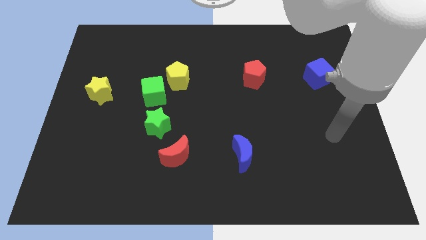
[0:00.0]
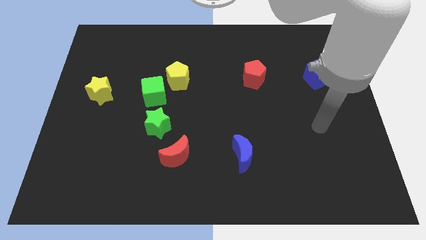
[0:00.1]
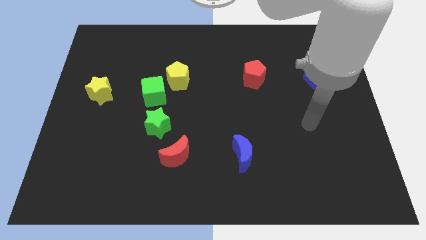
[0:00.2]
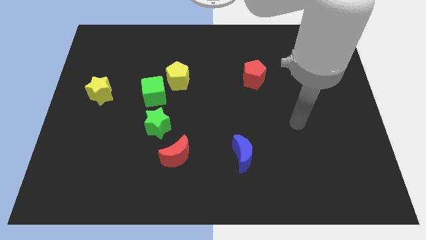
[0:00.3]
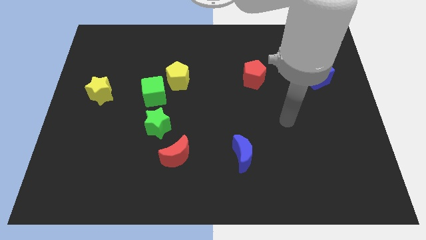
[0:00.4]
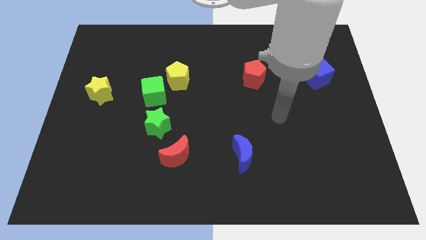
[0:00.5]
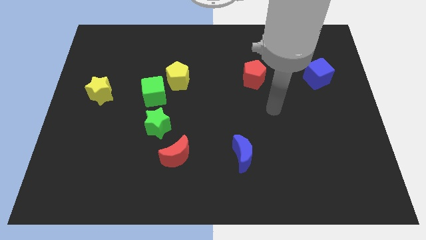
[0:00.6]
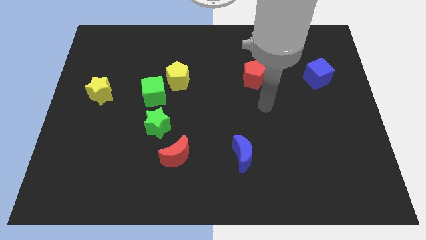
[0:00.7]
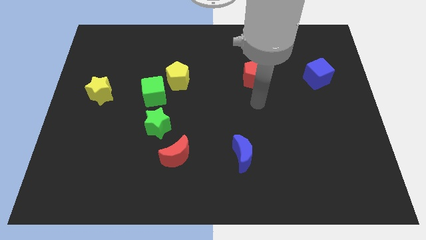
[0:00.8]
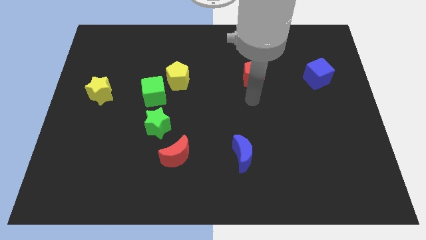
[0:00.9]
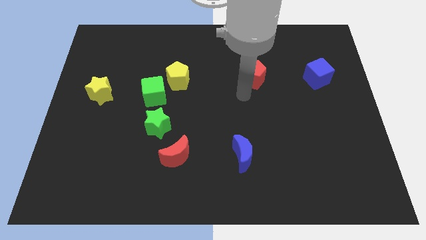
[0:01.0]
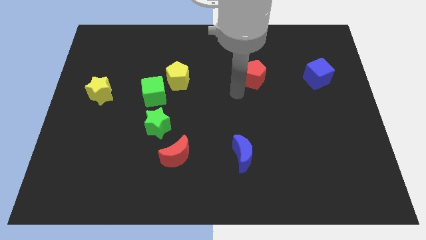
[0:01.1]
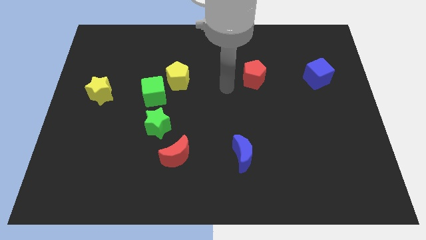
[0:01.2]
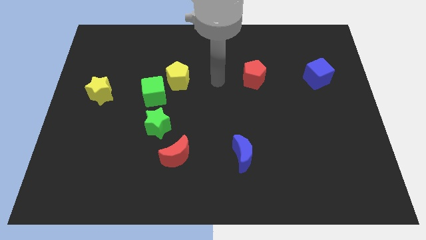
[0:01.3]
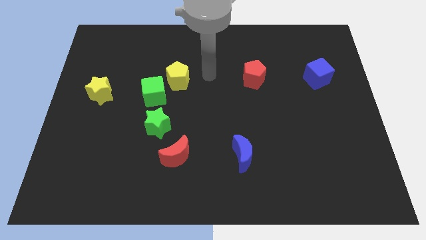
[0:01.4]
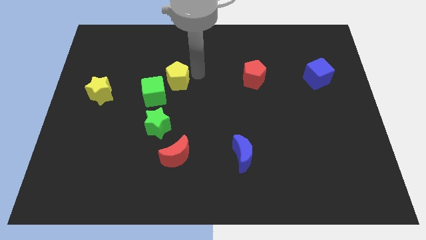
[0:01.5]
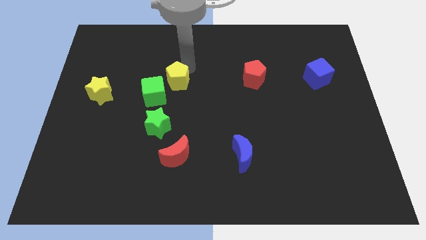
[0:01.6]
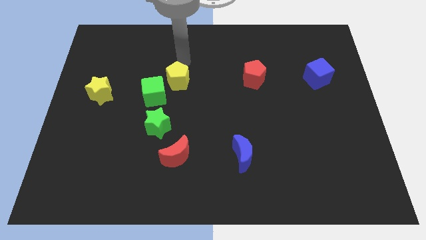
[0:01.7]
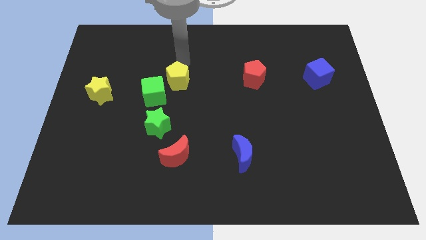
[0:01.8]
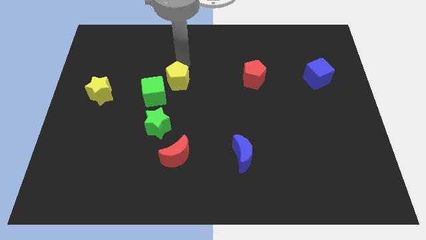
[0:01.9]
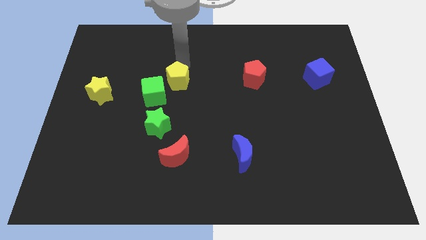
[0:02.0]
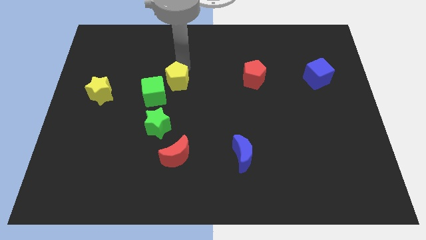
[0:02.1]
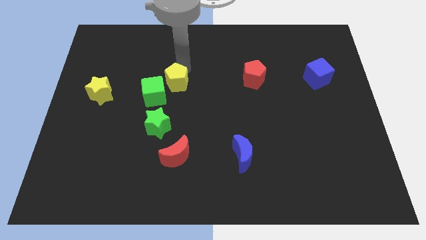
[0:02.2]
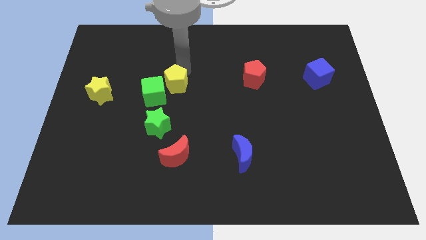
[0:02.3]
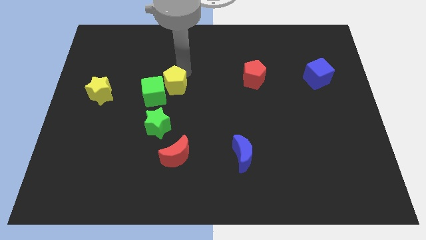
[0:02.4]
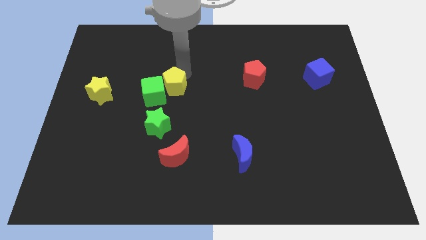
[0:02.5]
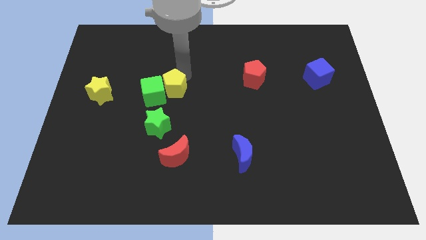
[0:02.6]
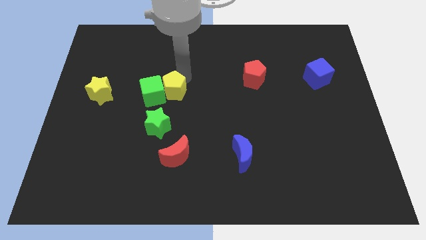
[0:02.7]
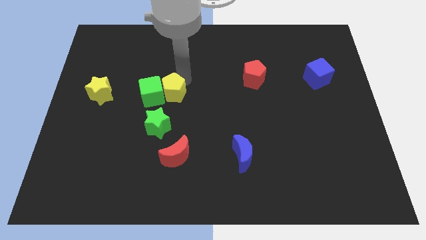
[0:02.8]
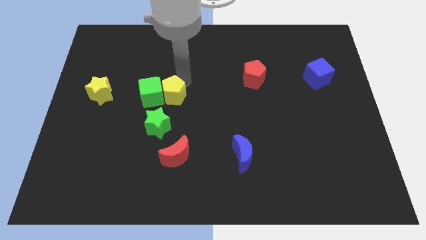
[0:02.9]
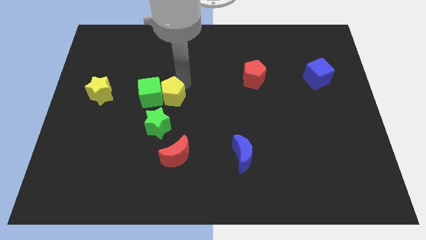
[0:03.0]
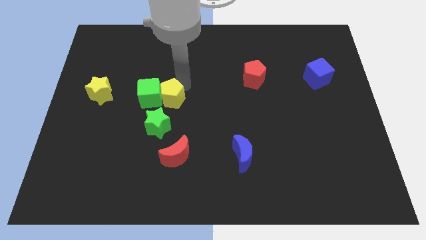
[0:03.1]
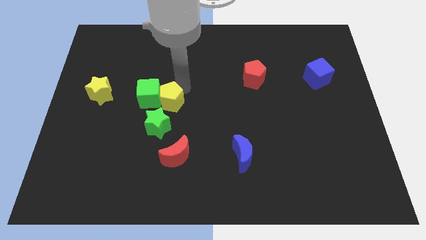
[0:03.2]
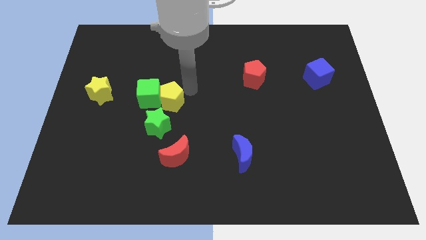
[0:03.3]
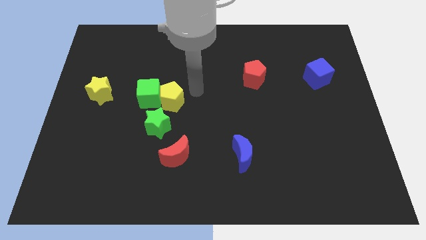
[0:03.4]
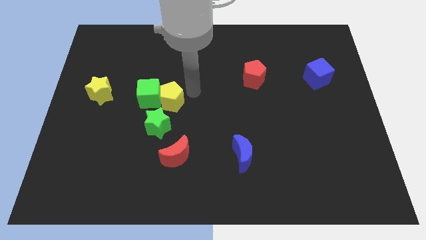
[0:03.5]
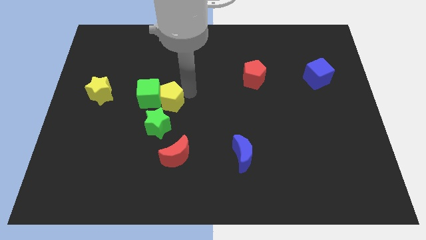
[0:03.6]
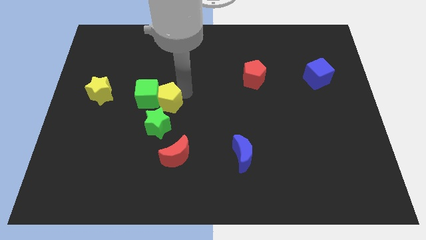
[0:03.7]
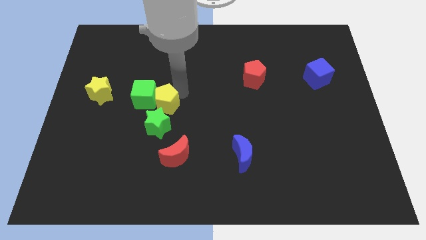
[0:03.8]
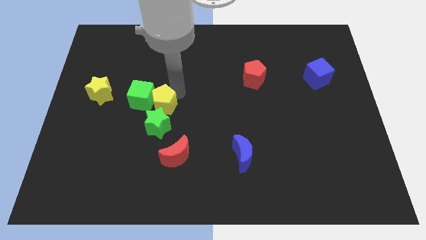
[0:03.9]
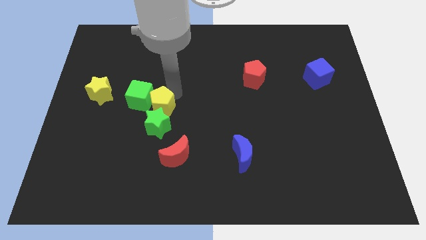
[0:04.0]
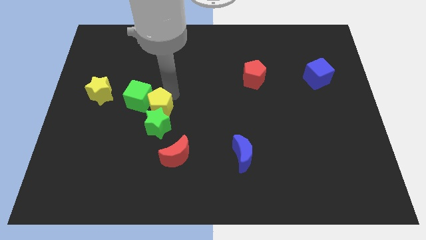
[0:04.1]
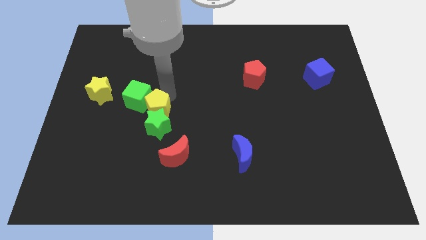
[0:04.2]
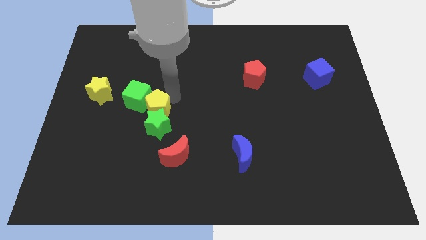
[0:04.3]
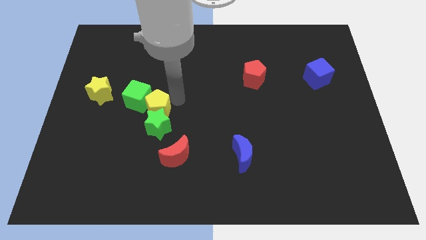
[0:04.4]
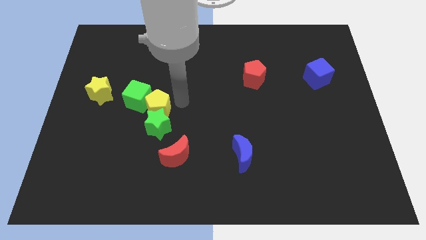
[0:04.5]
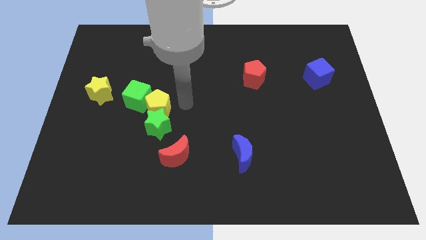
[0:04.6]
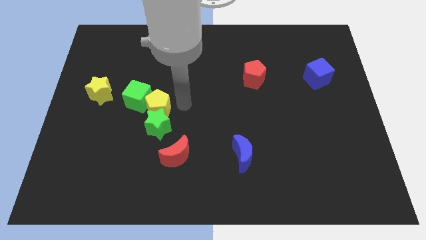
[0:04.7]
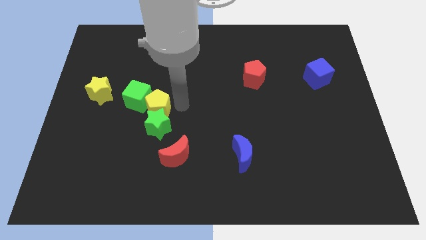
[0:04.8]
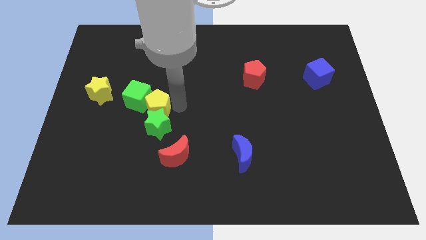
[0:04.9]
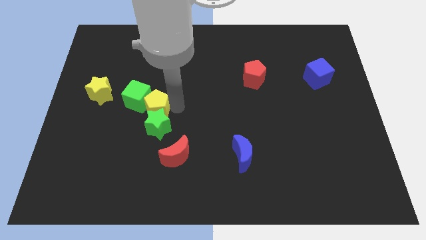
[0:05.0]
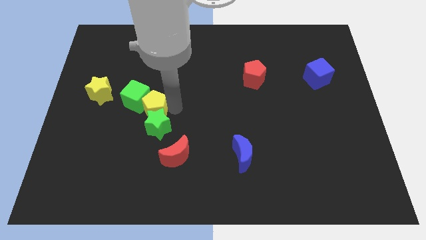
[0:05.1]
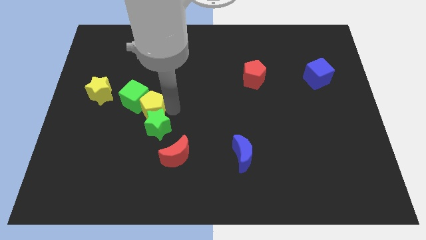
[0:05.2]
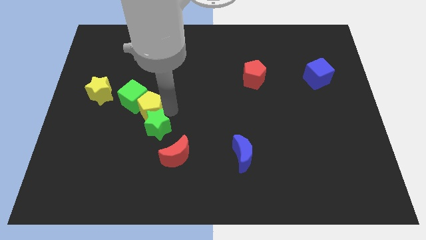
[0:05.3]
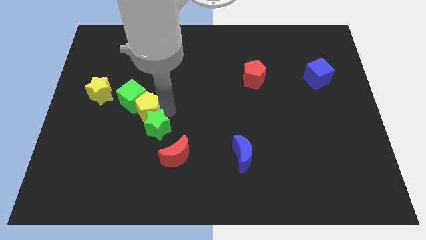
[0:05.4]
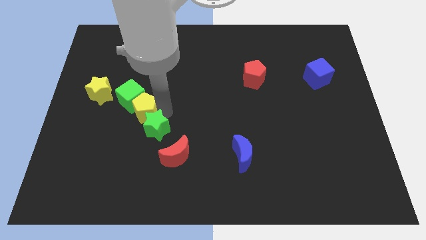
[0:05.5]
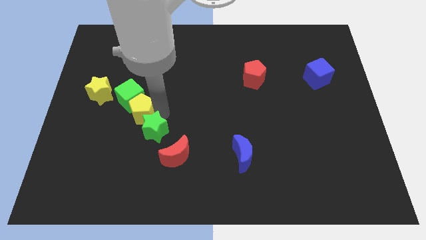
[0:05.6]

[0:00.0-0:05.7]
put the yellow pentagon diagonally down and to the right of the yellow star

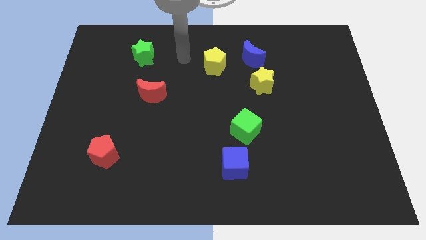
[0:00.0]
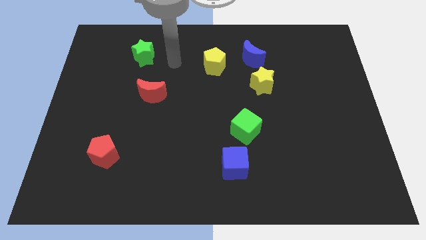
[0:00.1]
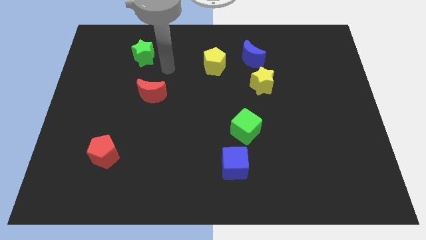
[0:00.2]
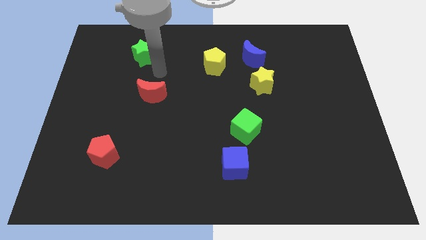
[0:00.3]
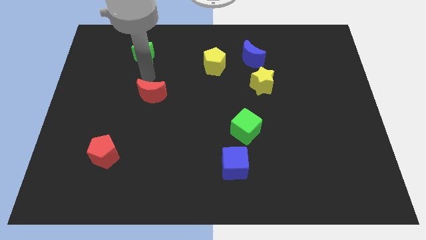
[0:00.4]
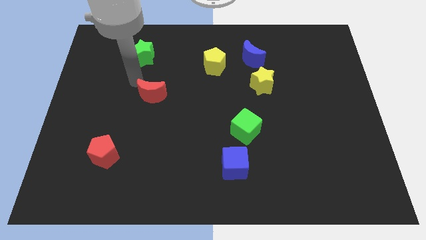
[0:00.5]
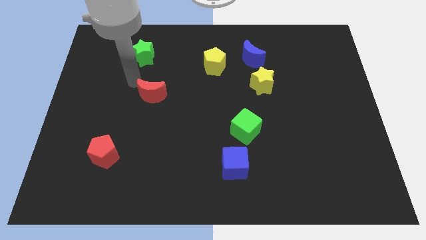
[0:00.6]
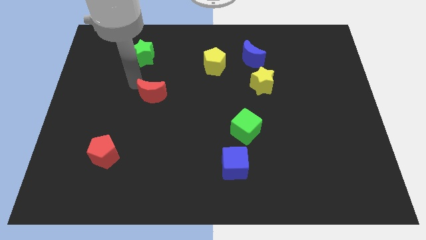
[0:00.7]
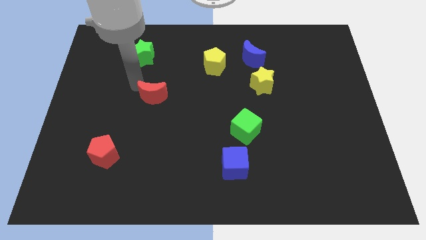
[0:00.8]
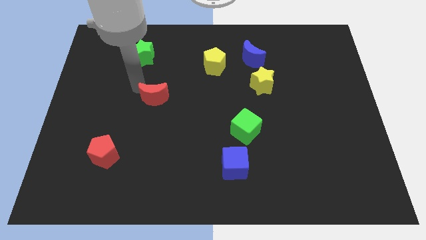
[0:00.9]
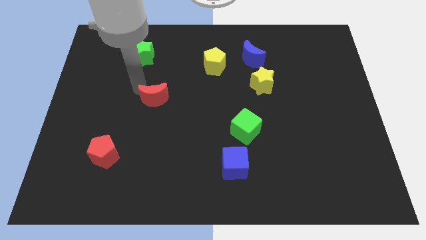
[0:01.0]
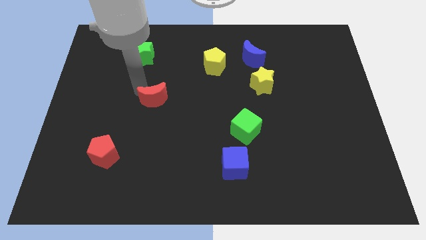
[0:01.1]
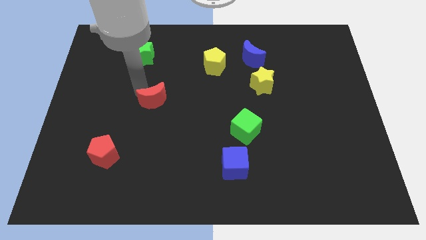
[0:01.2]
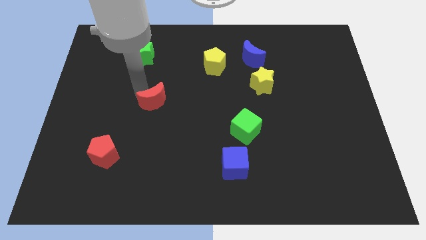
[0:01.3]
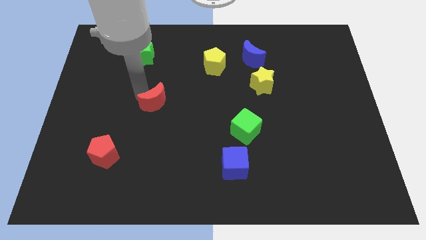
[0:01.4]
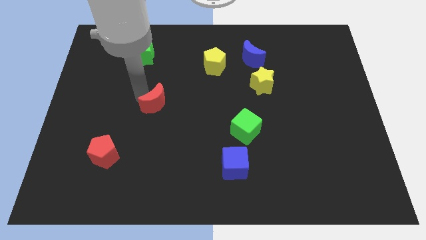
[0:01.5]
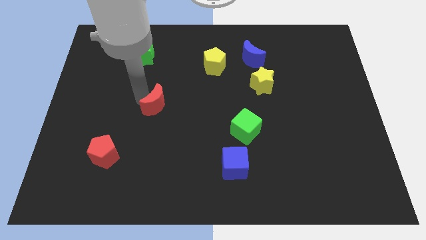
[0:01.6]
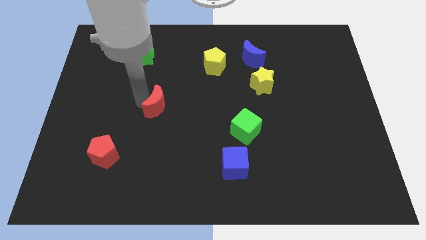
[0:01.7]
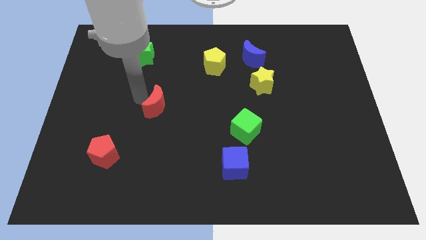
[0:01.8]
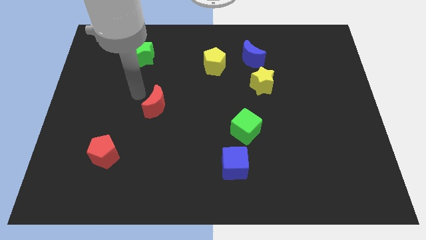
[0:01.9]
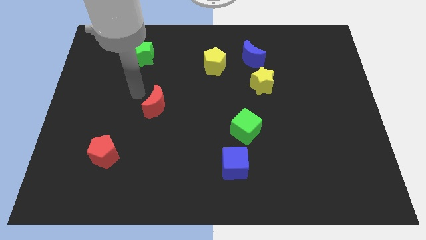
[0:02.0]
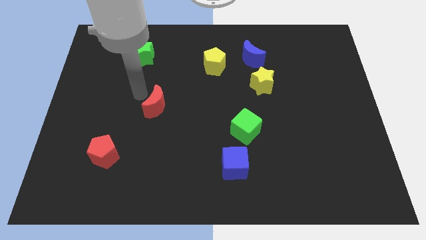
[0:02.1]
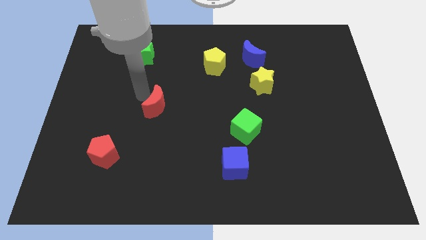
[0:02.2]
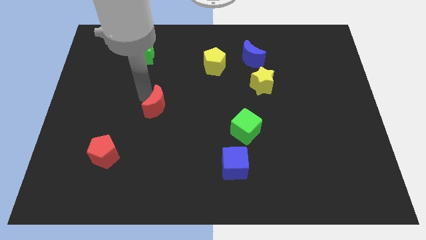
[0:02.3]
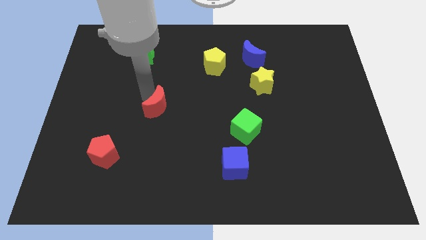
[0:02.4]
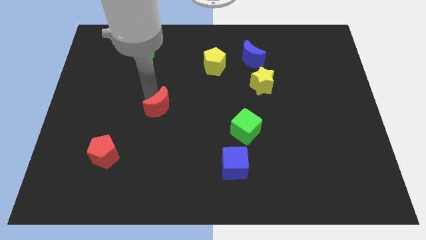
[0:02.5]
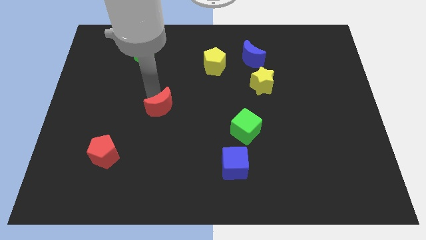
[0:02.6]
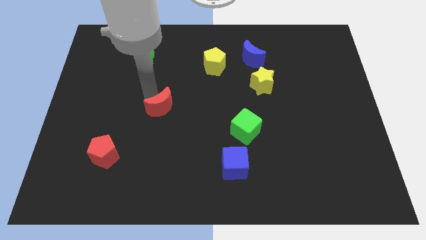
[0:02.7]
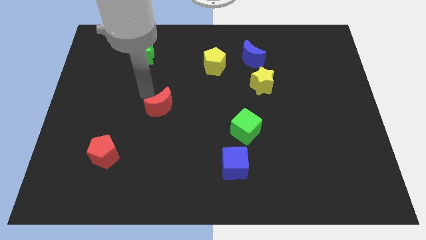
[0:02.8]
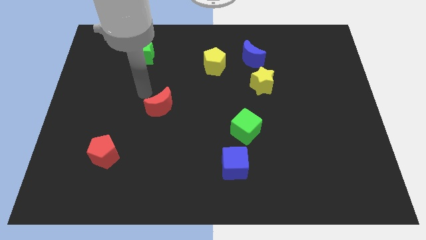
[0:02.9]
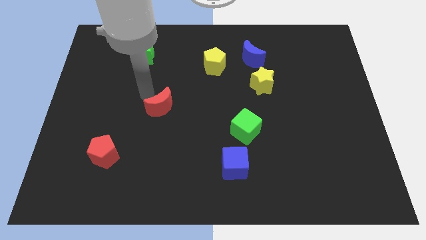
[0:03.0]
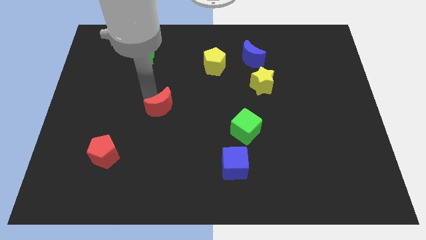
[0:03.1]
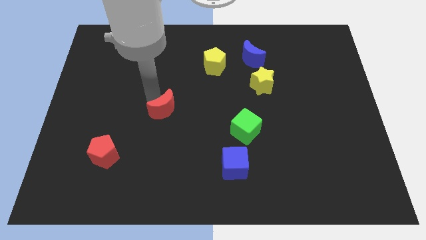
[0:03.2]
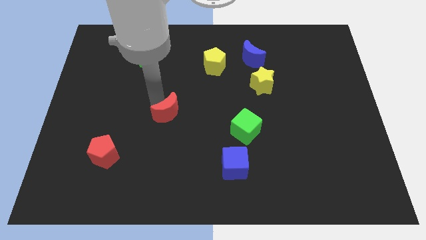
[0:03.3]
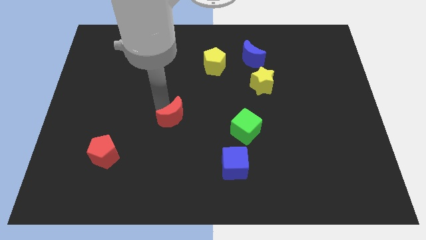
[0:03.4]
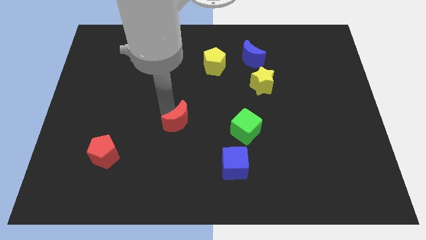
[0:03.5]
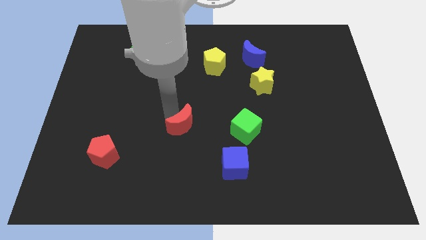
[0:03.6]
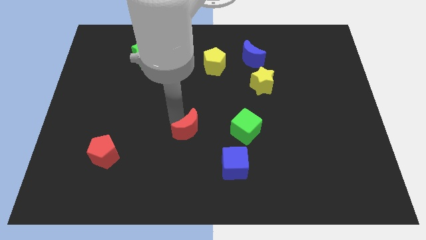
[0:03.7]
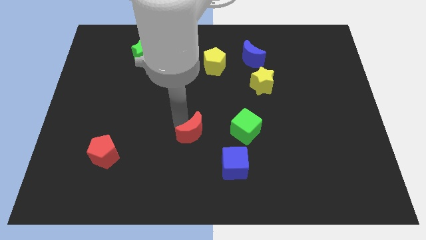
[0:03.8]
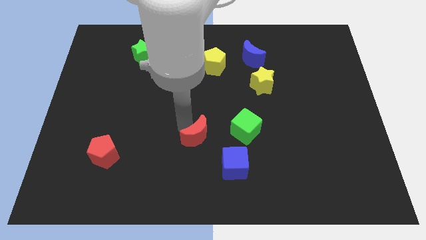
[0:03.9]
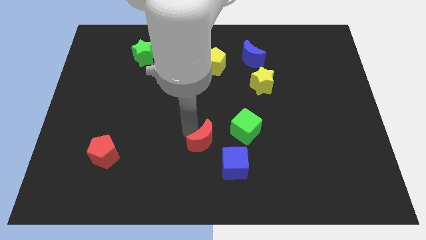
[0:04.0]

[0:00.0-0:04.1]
move the red moon to the bottom left side of the green cube
